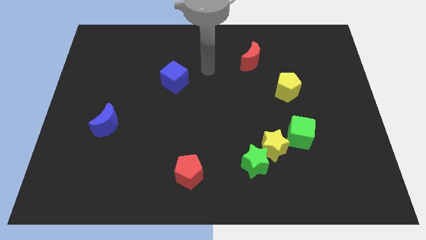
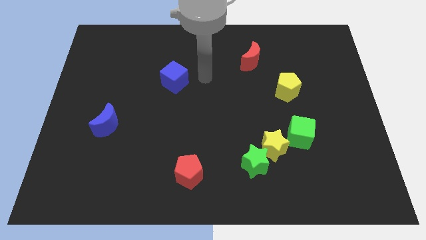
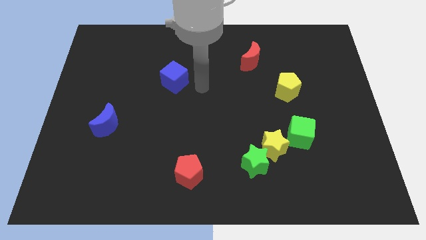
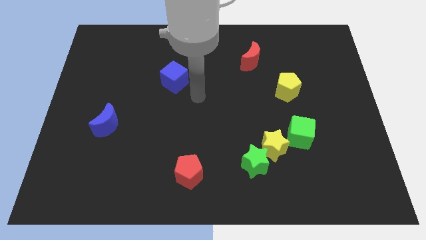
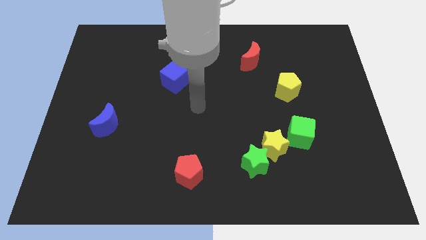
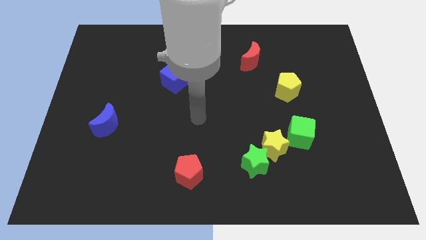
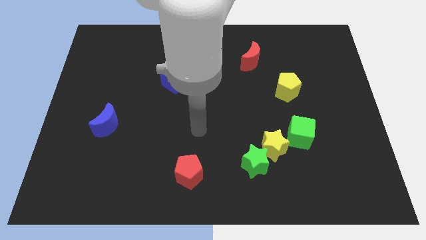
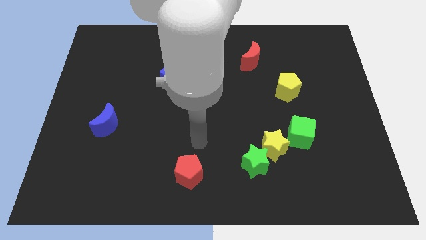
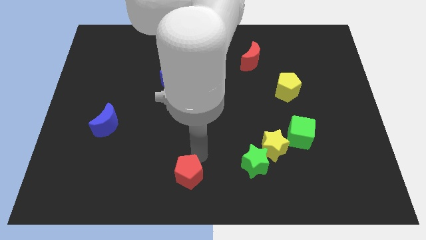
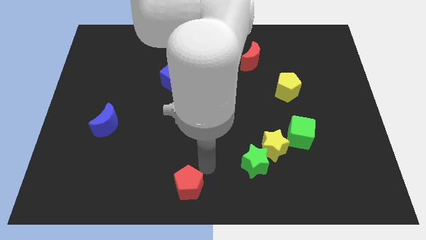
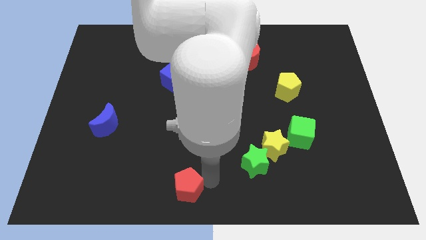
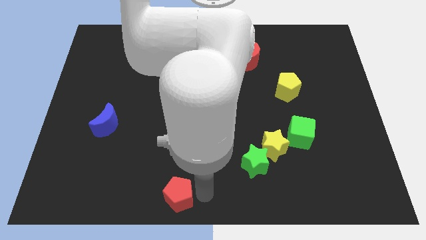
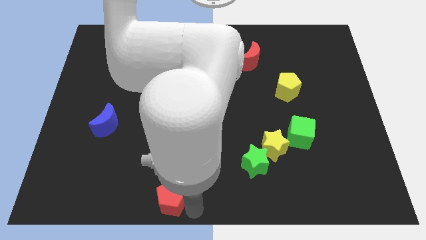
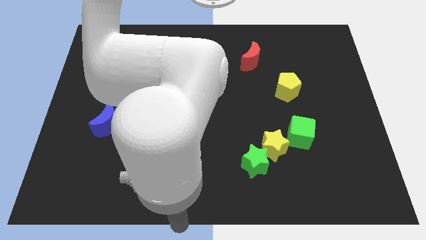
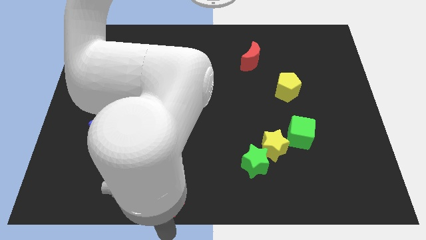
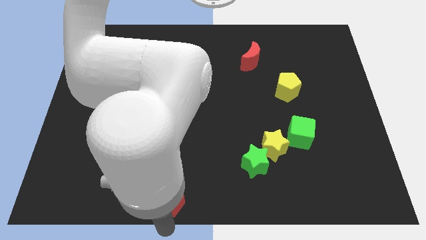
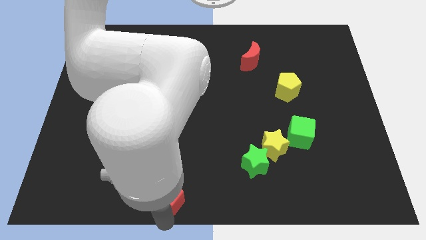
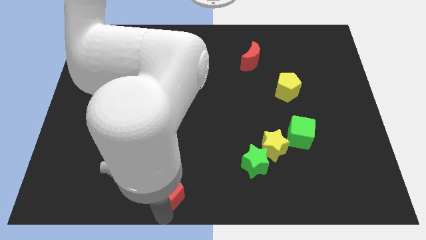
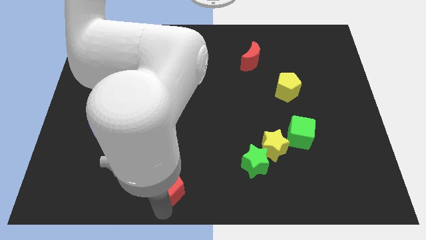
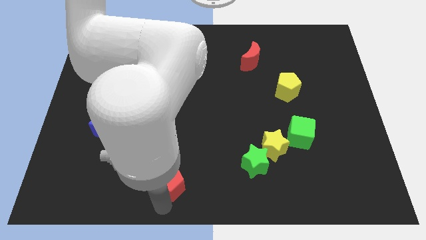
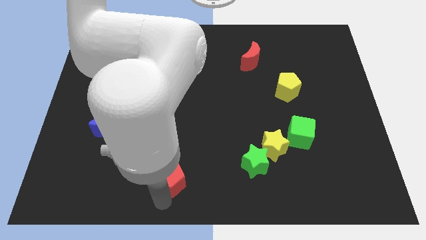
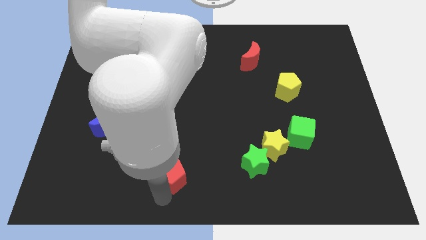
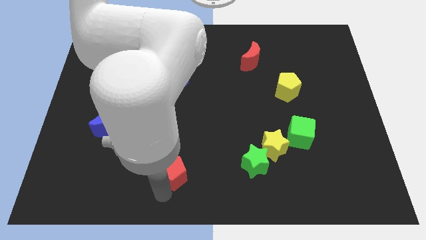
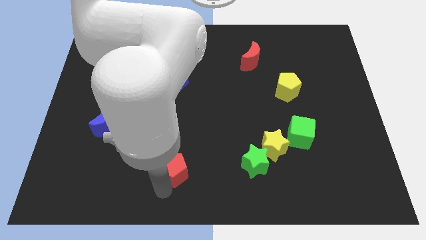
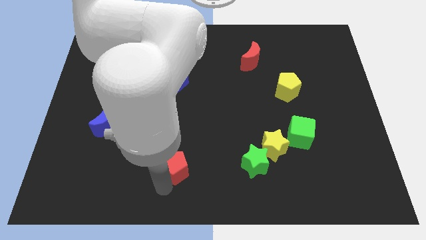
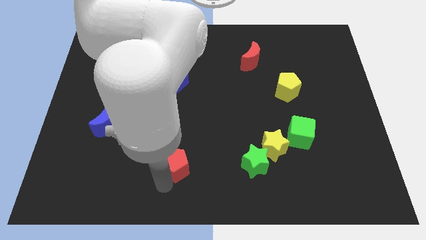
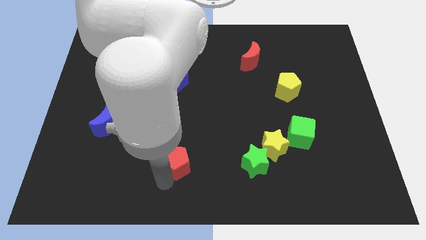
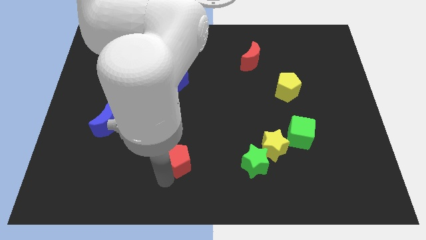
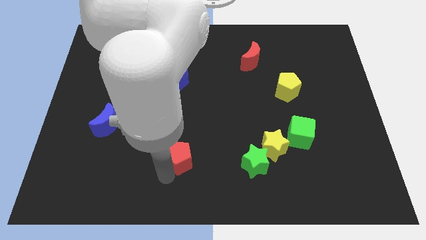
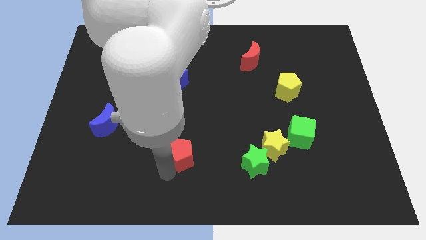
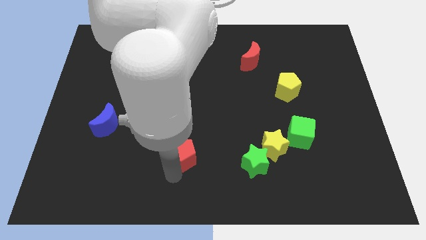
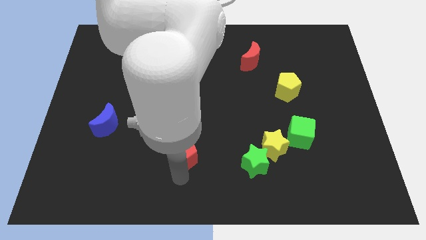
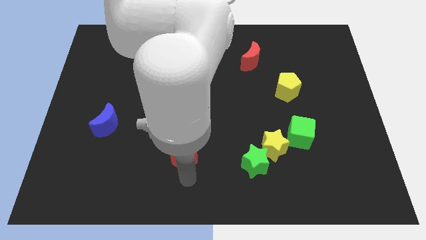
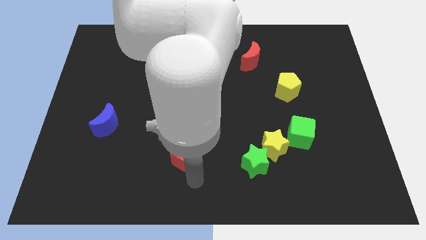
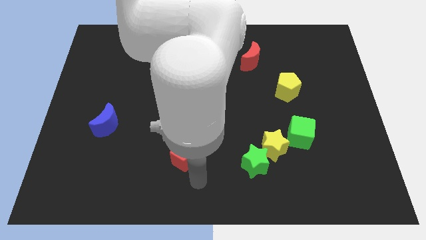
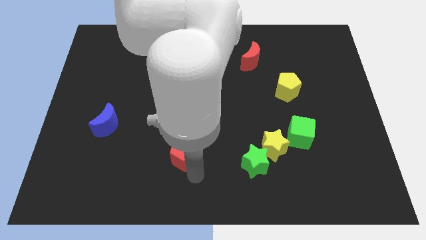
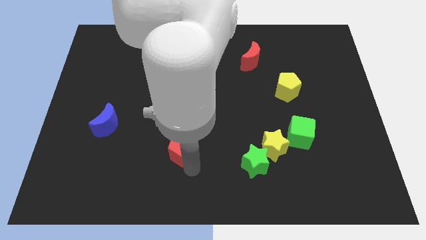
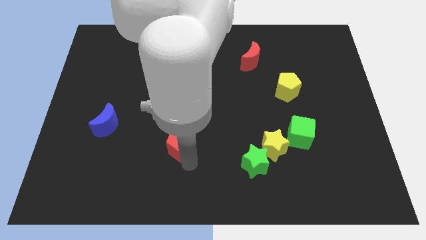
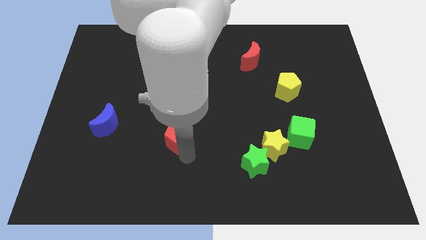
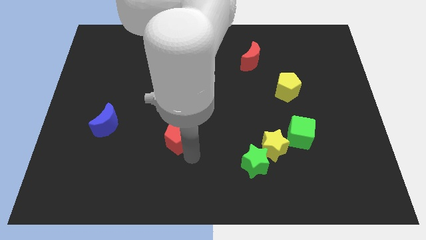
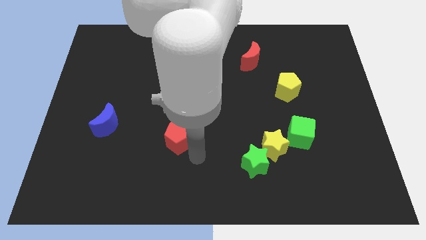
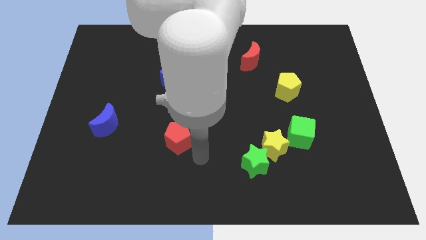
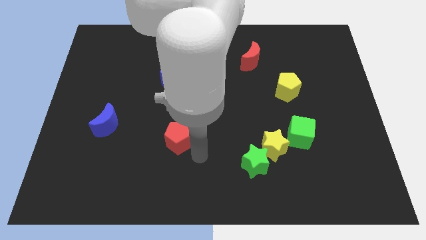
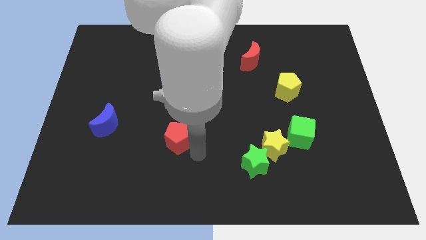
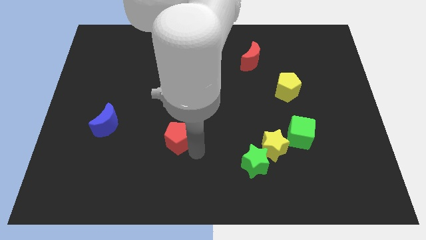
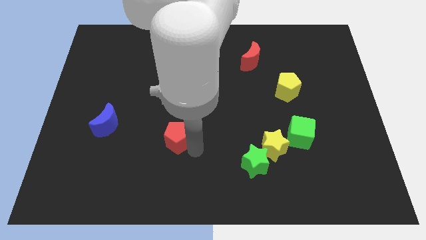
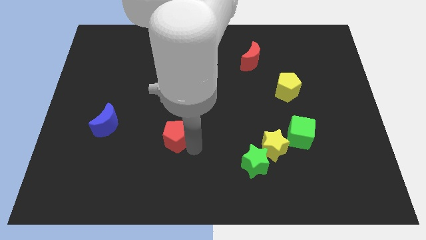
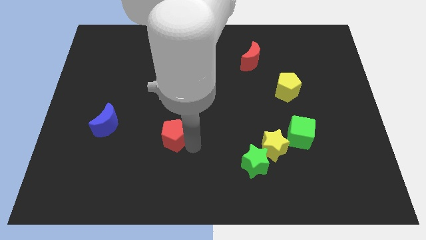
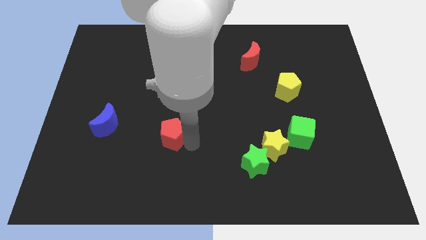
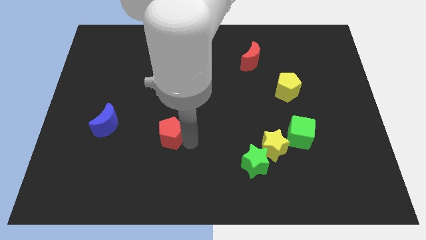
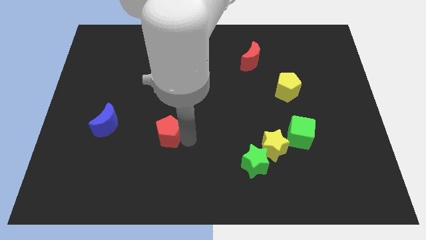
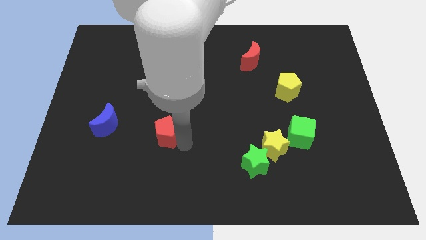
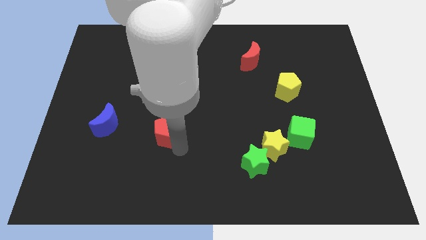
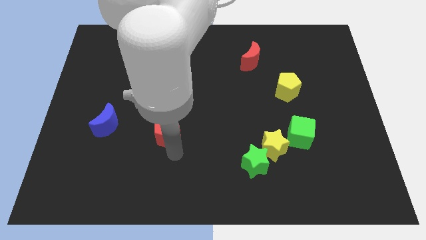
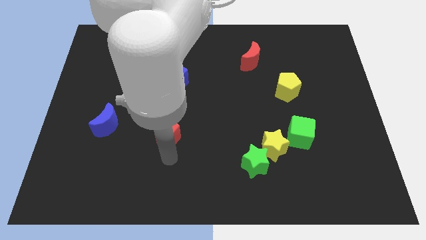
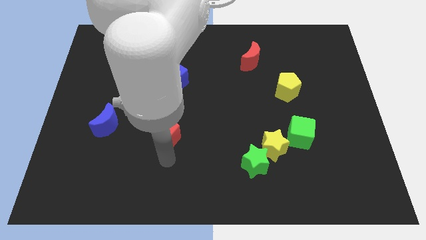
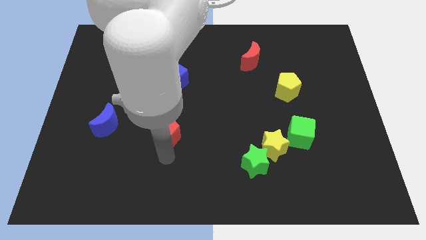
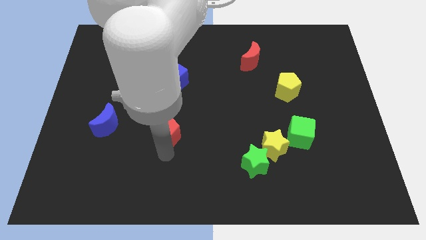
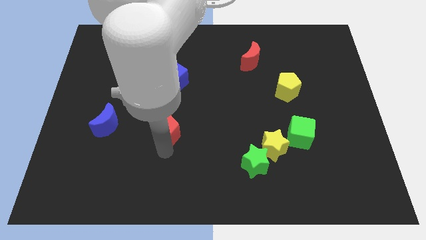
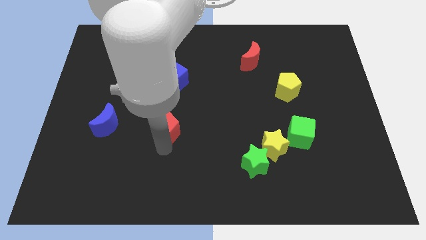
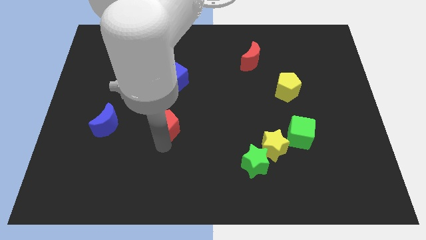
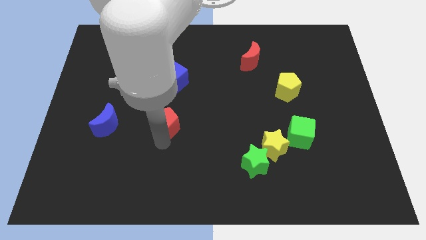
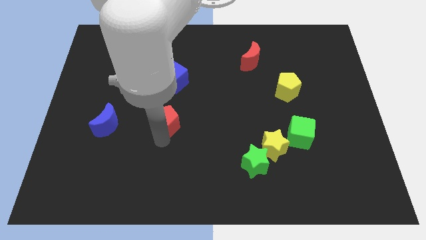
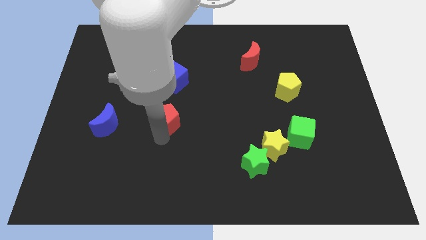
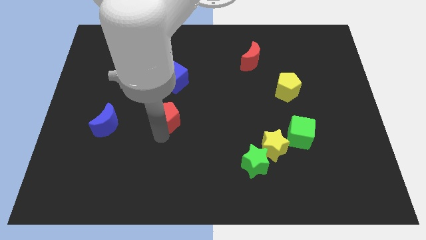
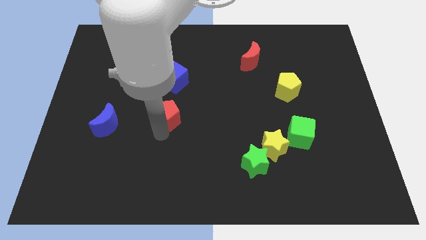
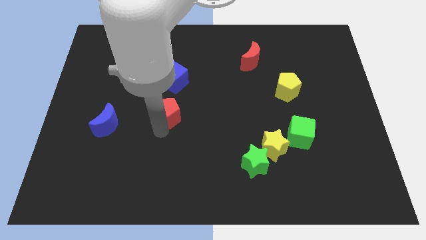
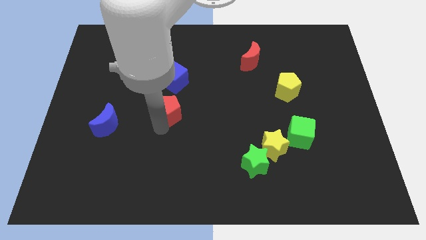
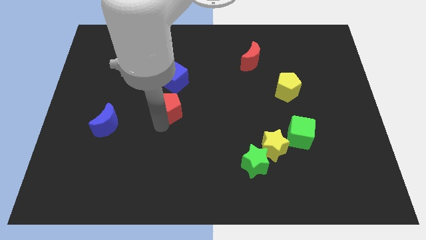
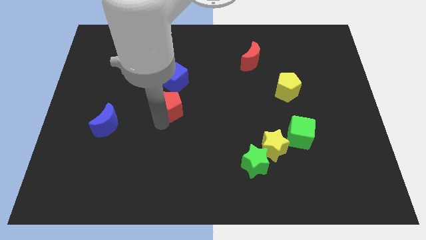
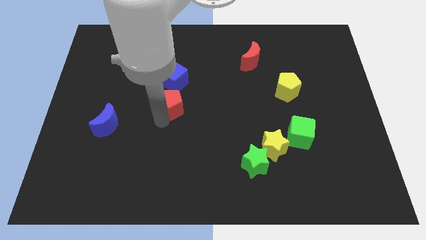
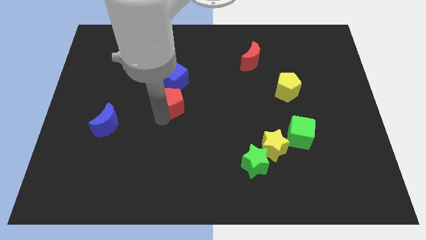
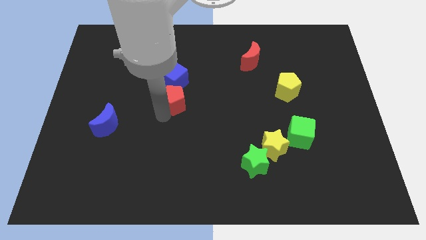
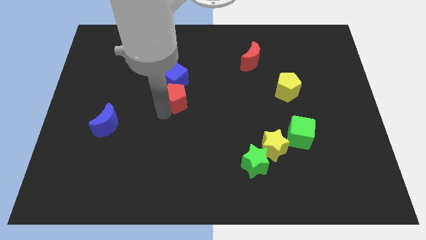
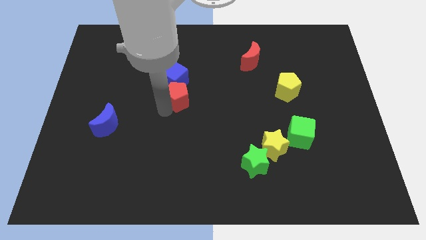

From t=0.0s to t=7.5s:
put the red pentagon to the blue cube

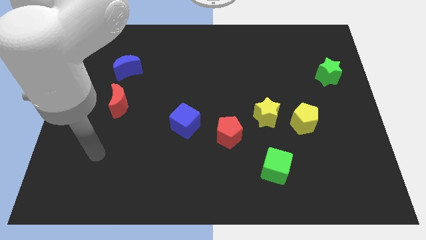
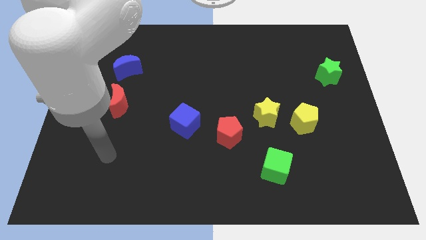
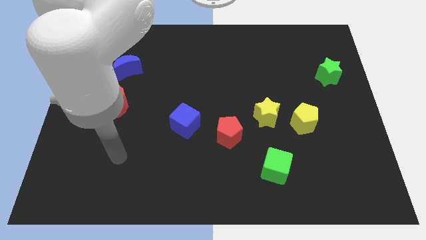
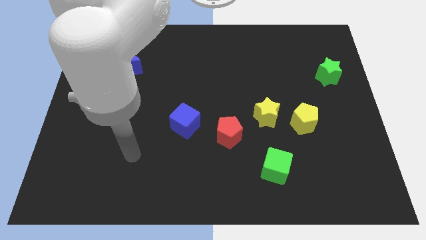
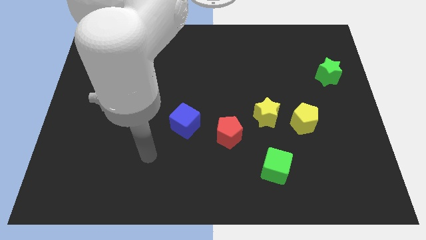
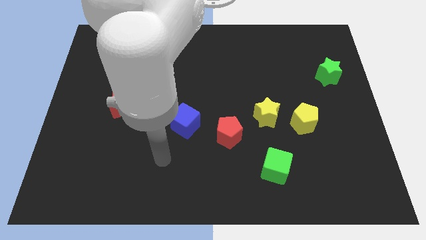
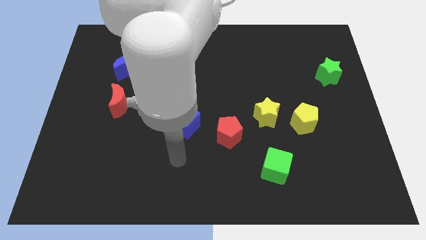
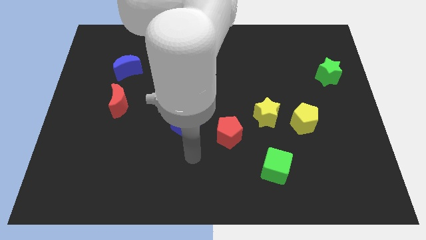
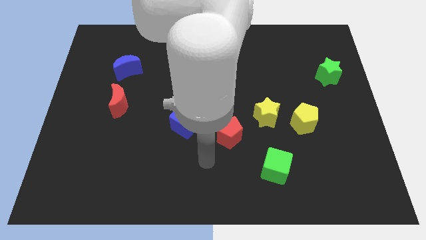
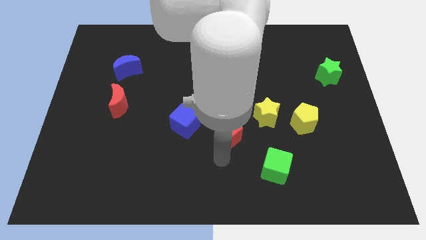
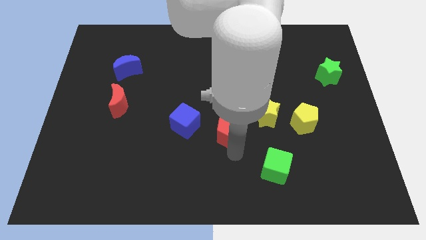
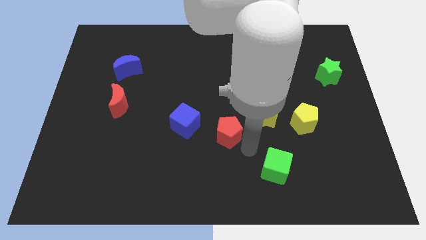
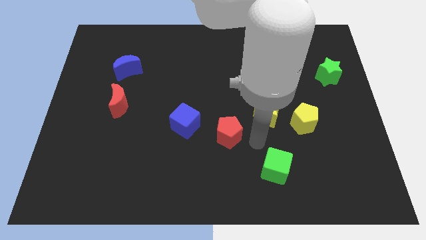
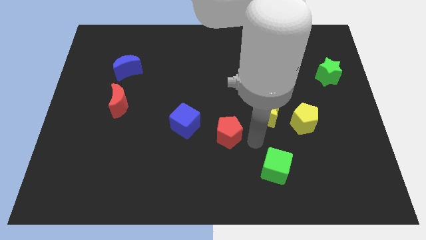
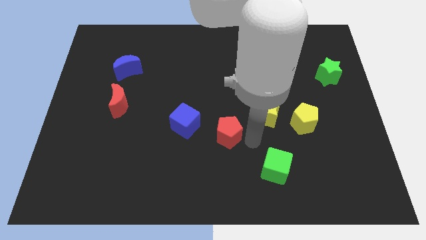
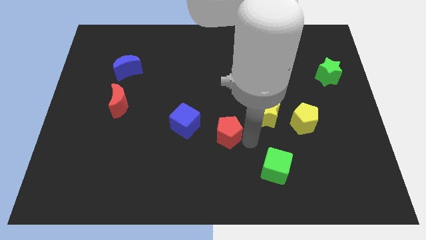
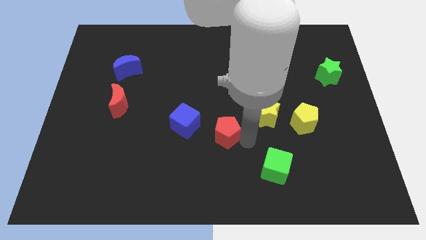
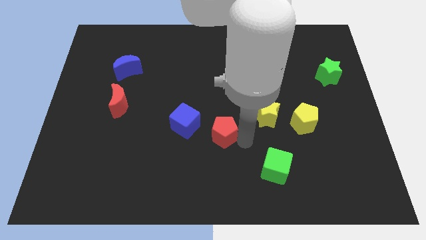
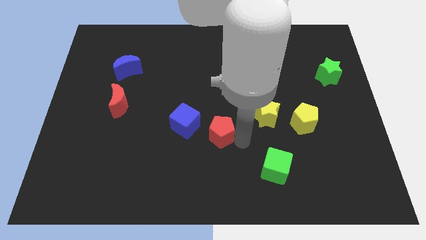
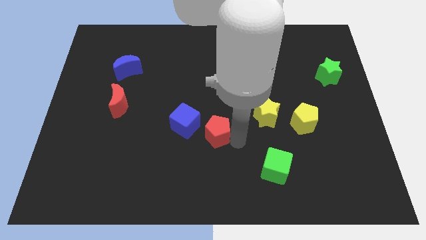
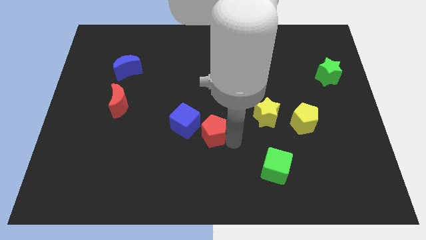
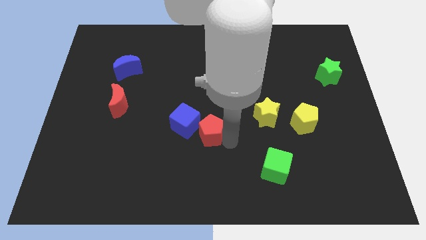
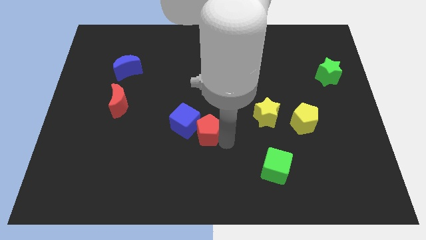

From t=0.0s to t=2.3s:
slide the red pentagon next to the blue cube
